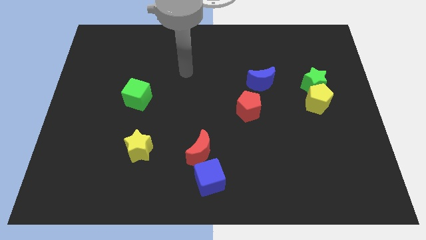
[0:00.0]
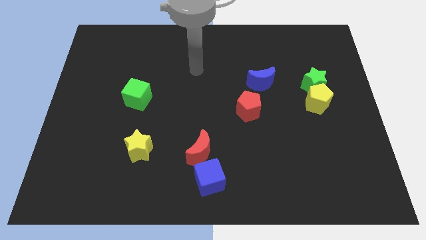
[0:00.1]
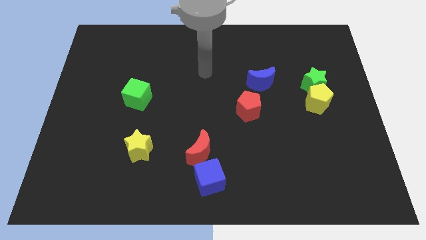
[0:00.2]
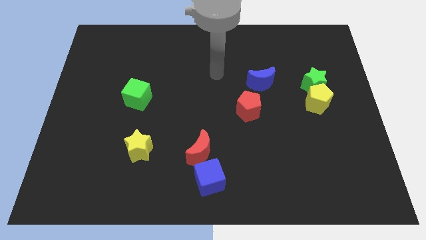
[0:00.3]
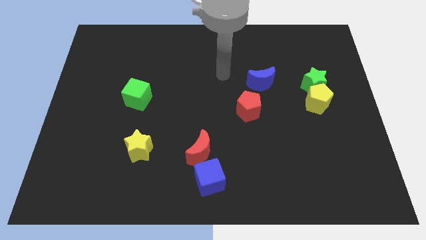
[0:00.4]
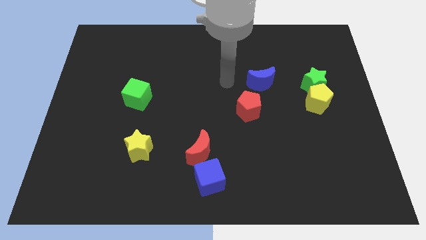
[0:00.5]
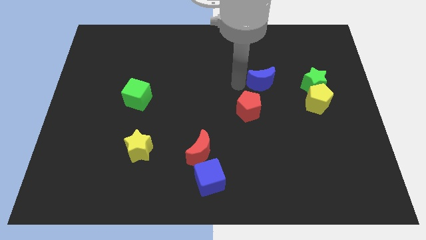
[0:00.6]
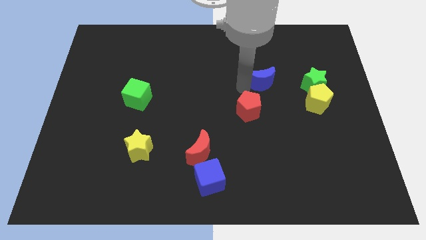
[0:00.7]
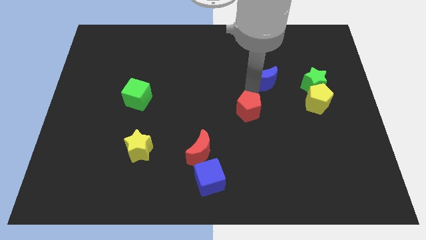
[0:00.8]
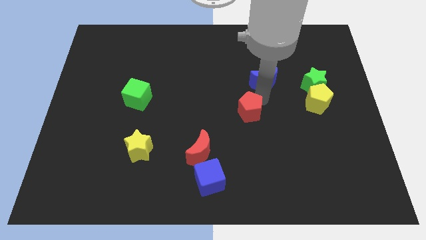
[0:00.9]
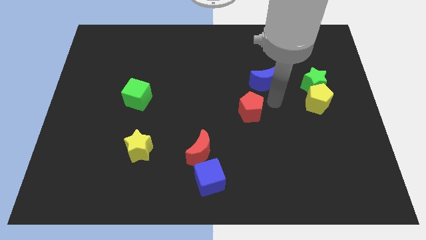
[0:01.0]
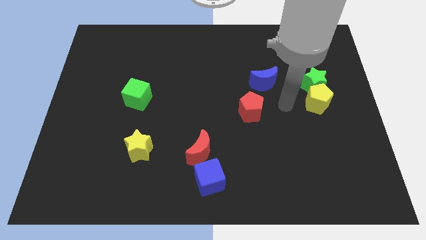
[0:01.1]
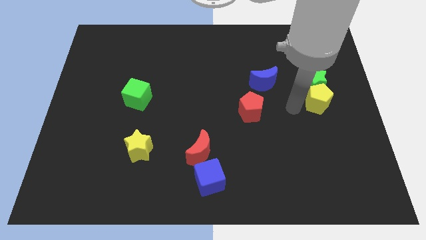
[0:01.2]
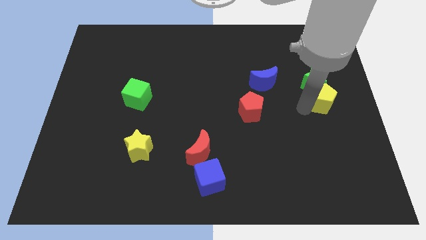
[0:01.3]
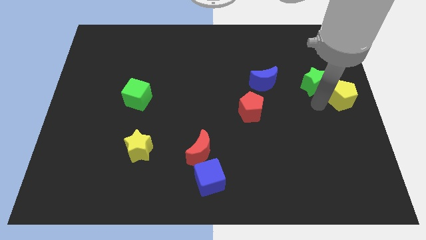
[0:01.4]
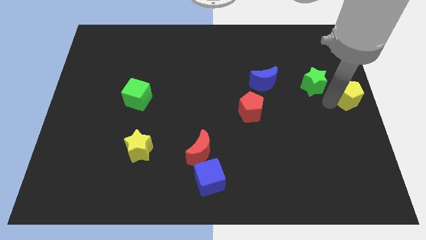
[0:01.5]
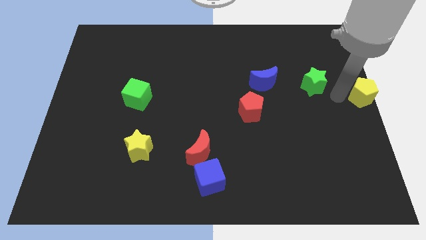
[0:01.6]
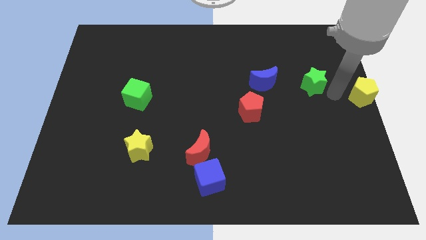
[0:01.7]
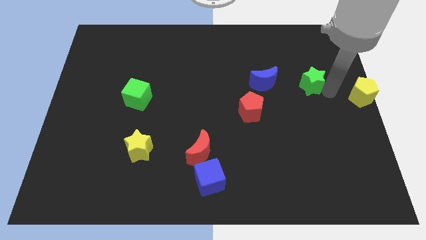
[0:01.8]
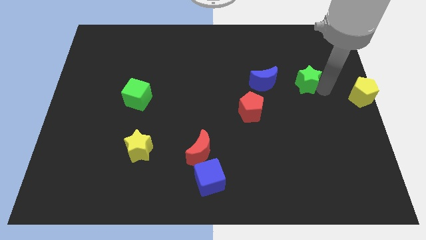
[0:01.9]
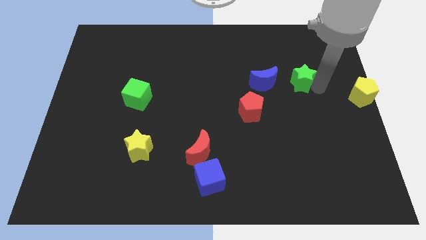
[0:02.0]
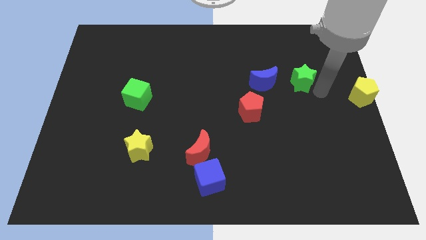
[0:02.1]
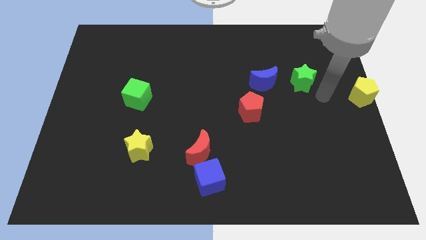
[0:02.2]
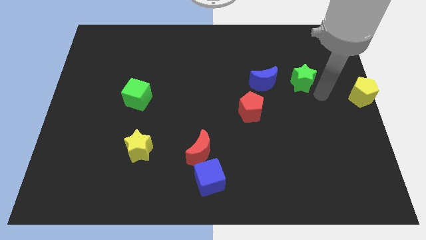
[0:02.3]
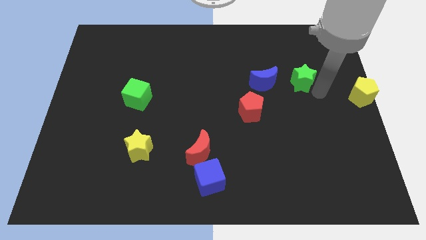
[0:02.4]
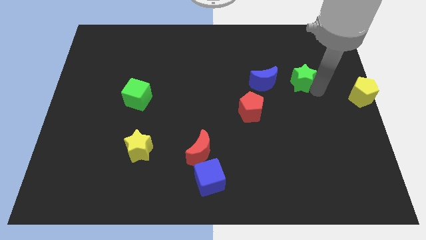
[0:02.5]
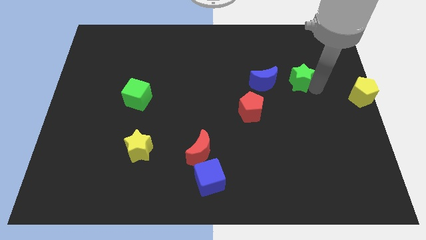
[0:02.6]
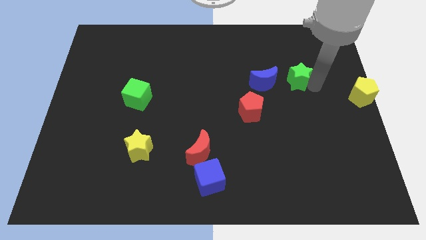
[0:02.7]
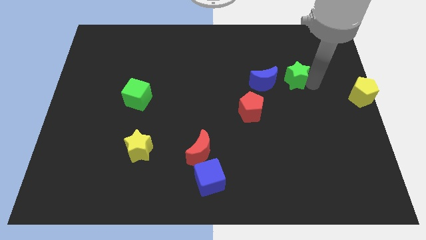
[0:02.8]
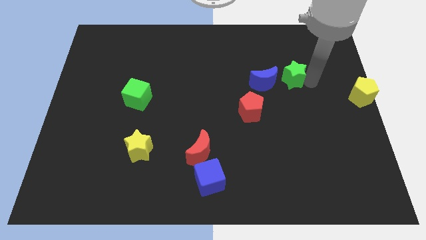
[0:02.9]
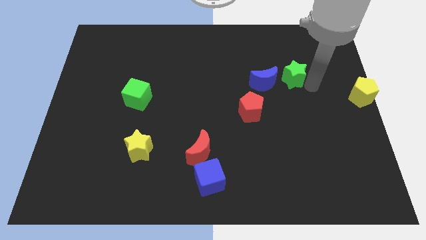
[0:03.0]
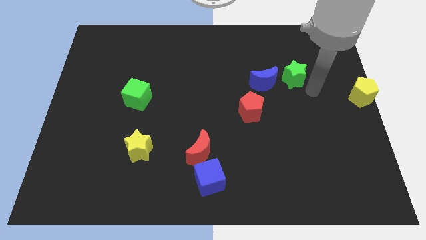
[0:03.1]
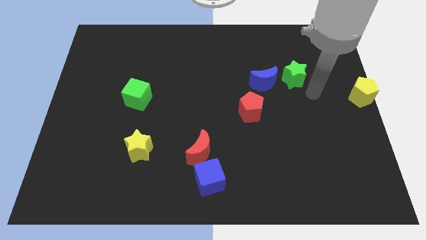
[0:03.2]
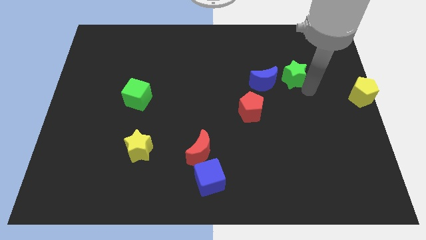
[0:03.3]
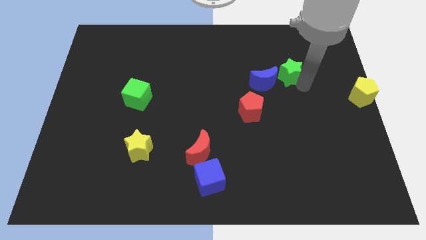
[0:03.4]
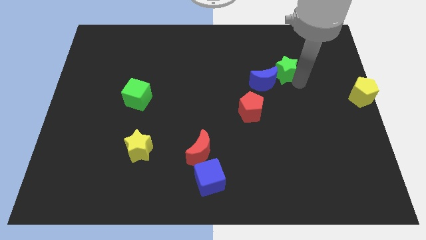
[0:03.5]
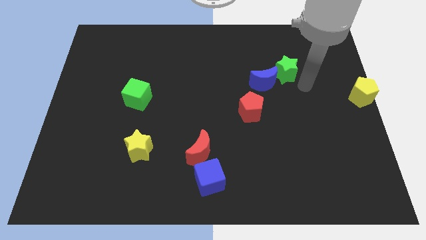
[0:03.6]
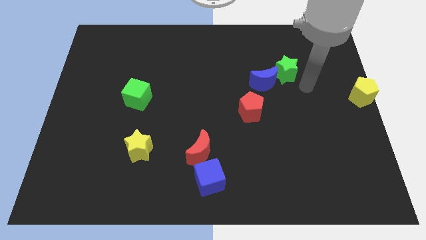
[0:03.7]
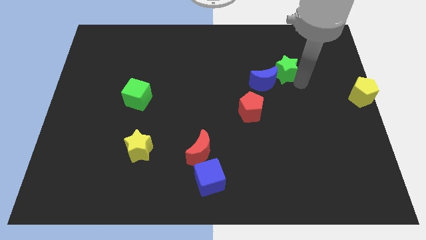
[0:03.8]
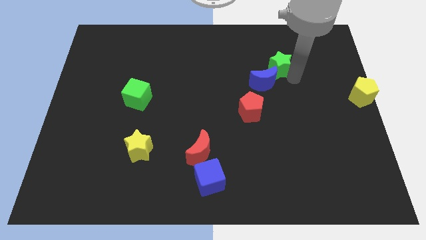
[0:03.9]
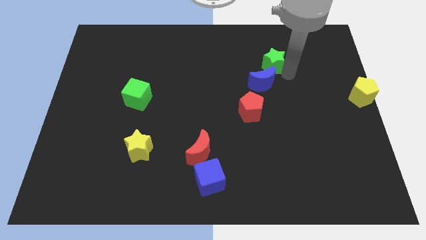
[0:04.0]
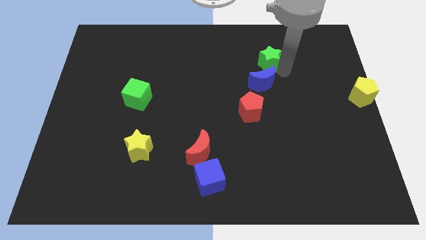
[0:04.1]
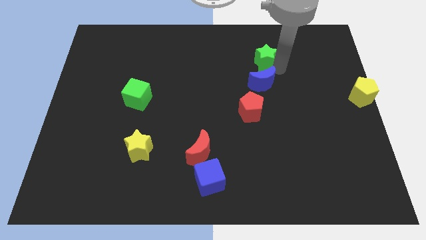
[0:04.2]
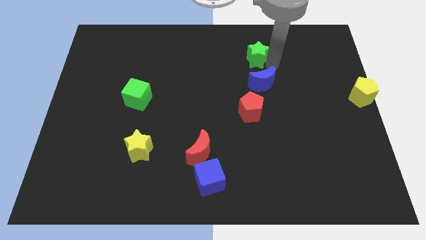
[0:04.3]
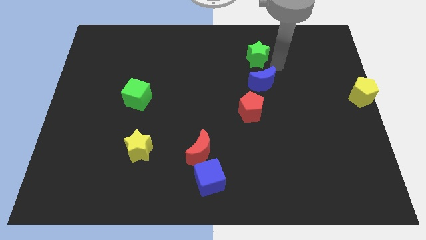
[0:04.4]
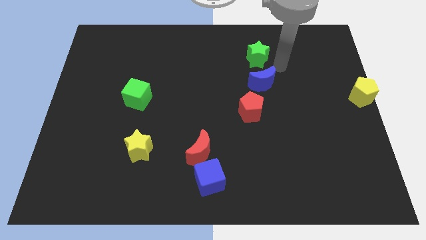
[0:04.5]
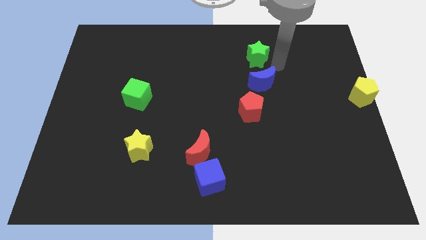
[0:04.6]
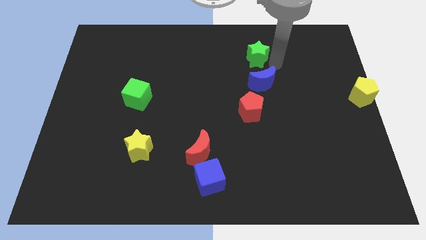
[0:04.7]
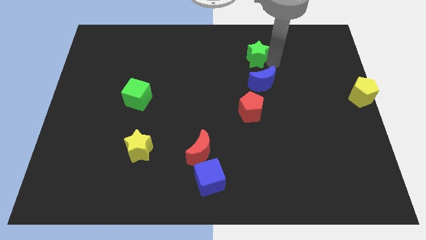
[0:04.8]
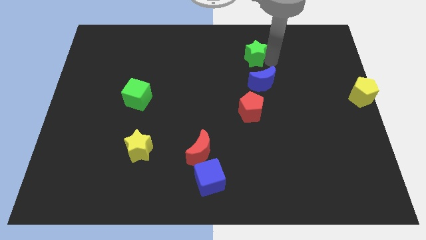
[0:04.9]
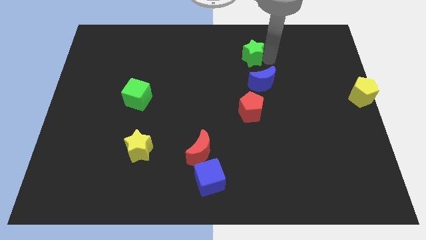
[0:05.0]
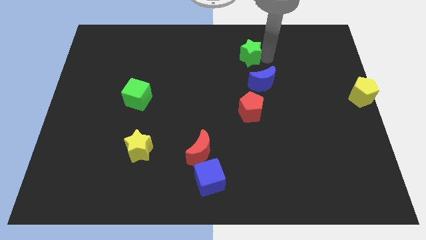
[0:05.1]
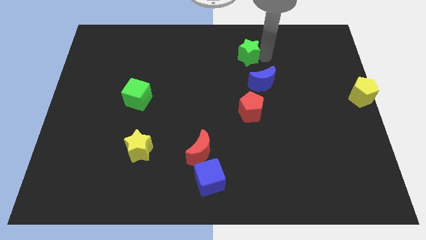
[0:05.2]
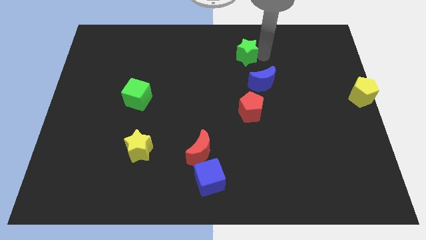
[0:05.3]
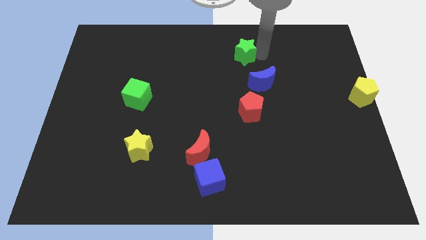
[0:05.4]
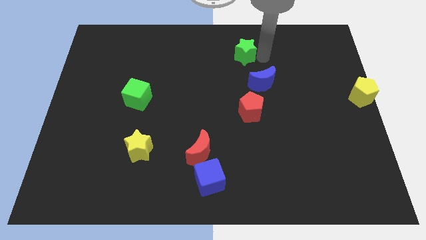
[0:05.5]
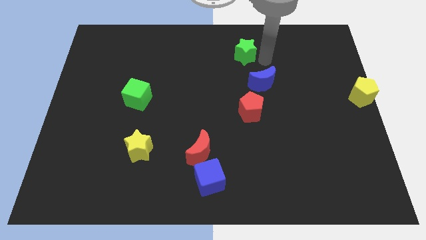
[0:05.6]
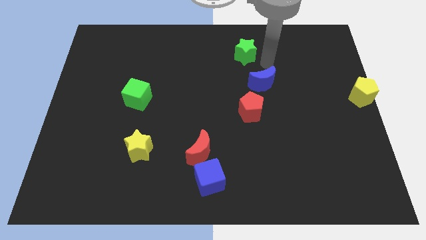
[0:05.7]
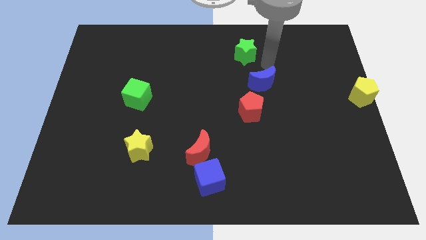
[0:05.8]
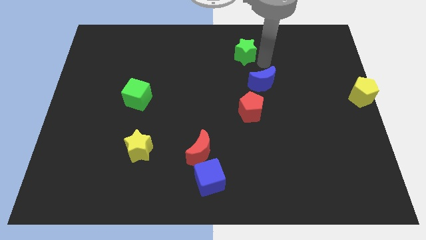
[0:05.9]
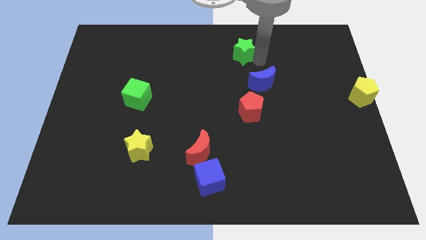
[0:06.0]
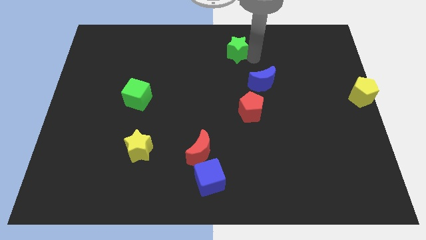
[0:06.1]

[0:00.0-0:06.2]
move the green star to the top
